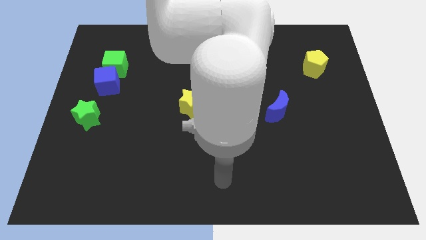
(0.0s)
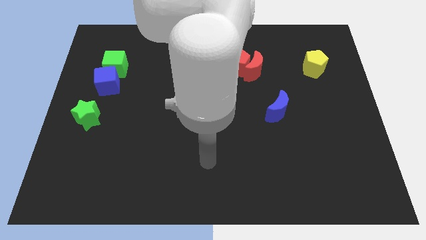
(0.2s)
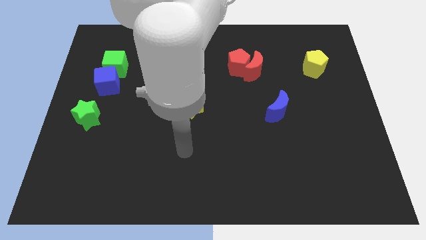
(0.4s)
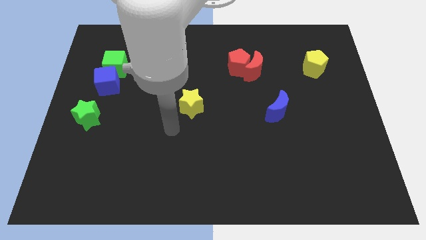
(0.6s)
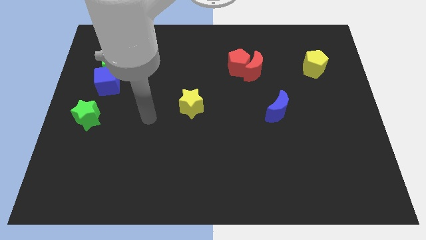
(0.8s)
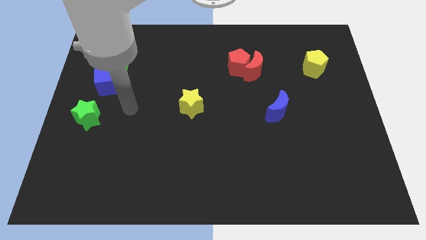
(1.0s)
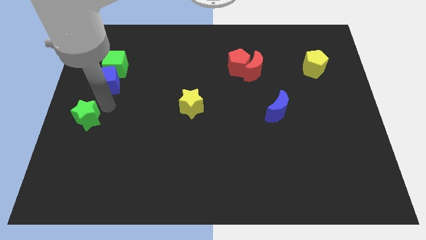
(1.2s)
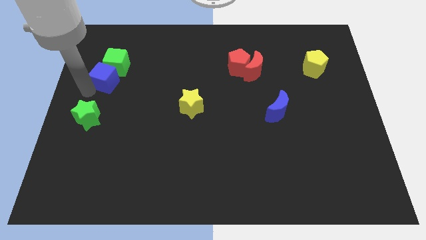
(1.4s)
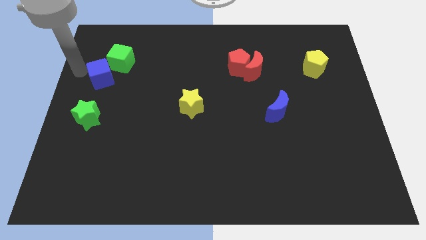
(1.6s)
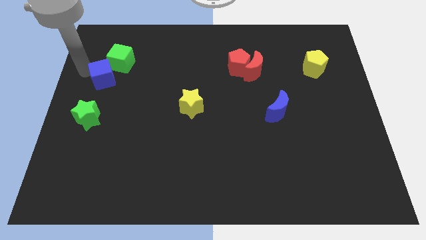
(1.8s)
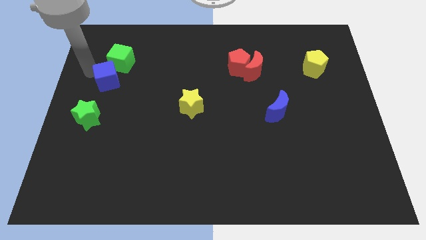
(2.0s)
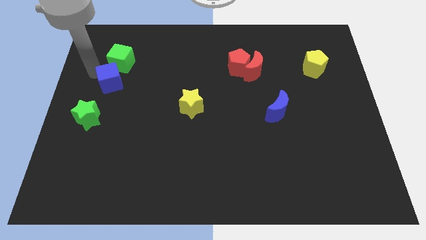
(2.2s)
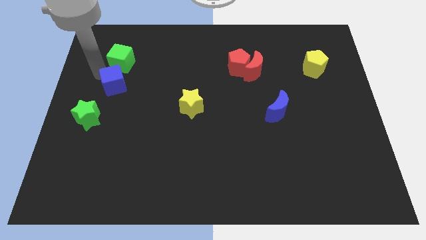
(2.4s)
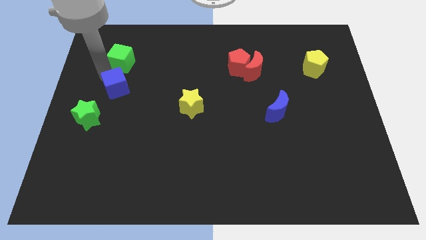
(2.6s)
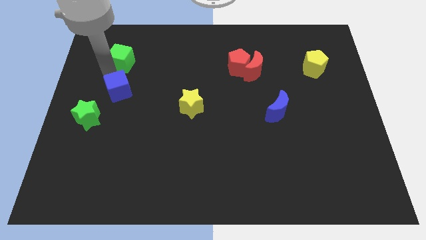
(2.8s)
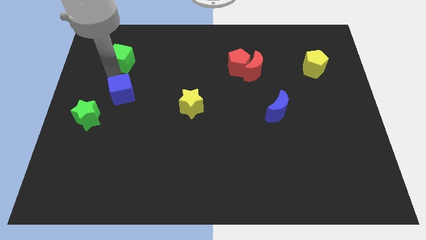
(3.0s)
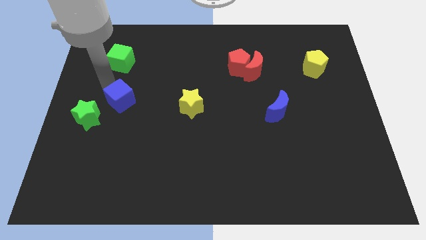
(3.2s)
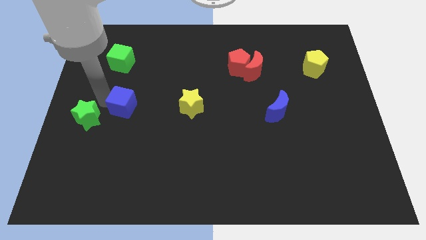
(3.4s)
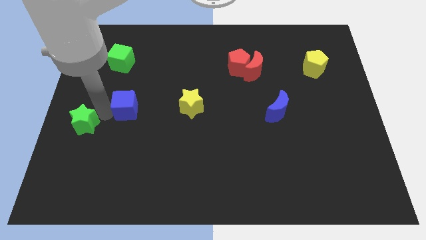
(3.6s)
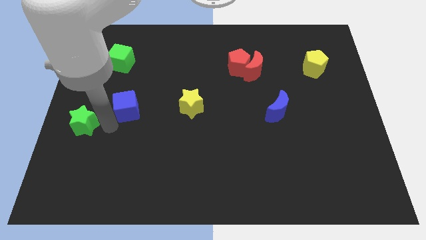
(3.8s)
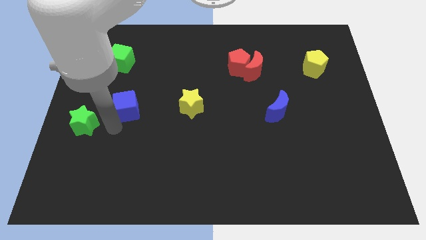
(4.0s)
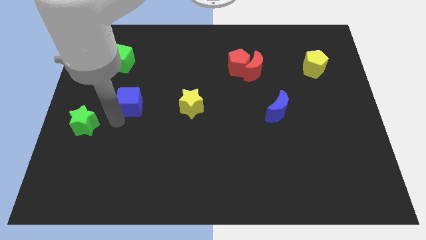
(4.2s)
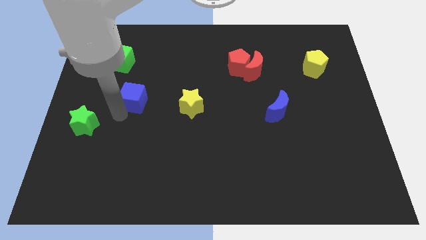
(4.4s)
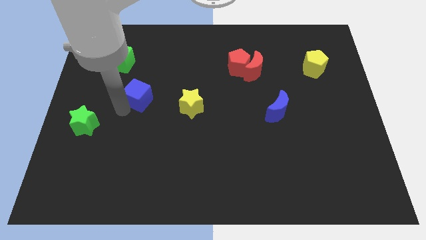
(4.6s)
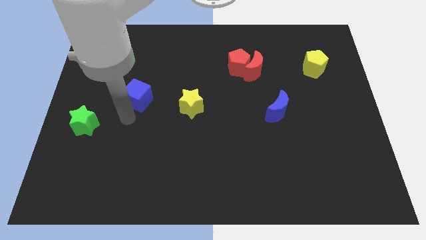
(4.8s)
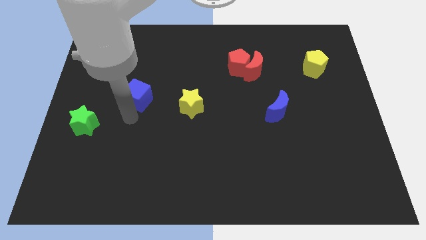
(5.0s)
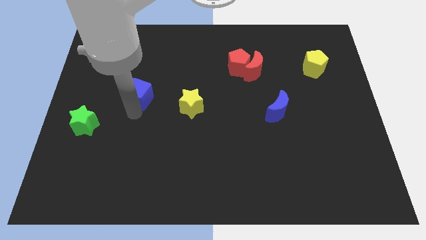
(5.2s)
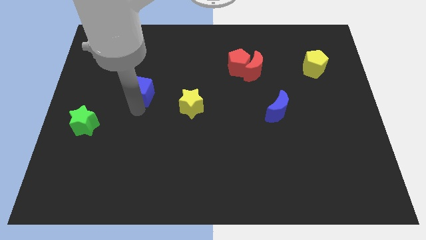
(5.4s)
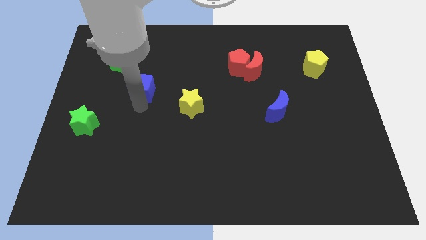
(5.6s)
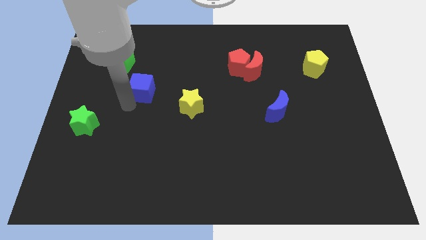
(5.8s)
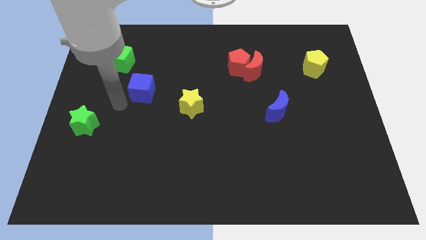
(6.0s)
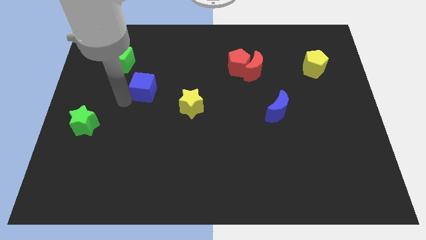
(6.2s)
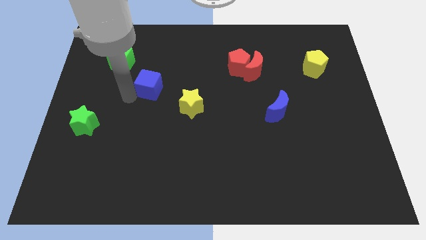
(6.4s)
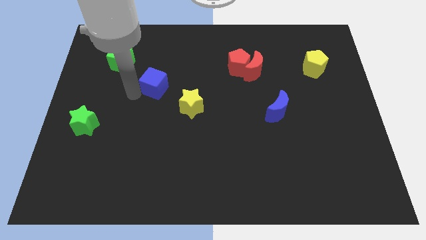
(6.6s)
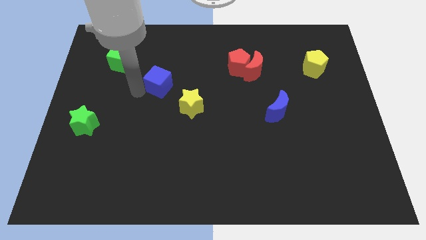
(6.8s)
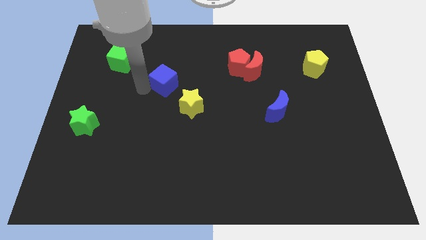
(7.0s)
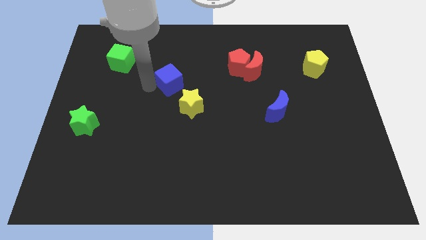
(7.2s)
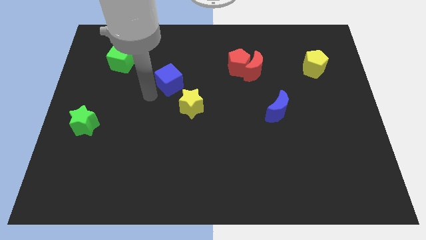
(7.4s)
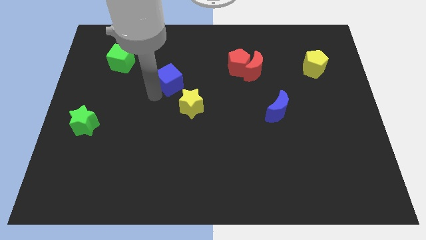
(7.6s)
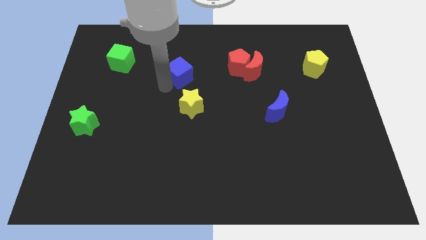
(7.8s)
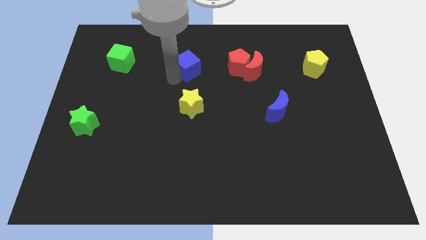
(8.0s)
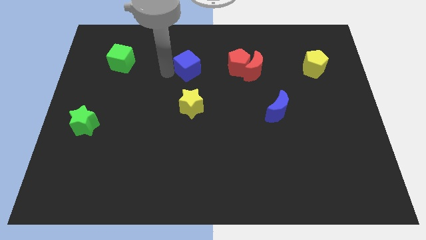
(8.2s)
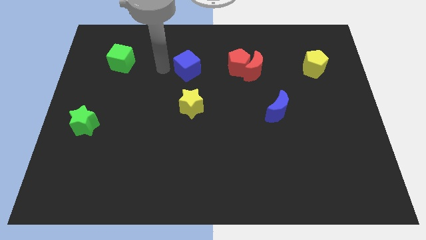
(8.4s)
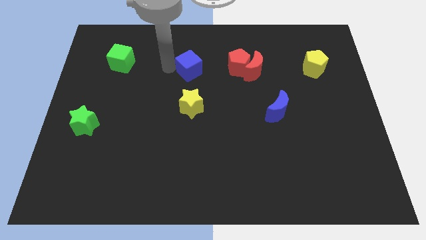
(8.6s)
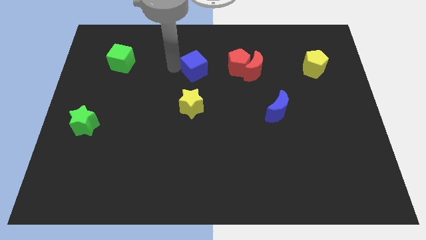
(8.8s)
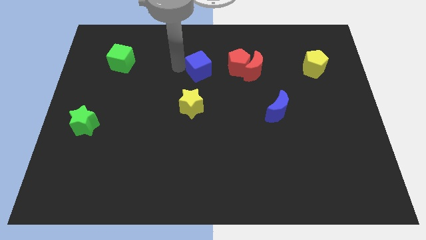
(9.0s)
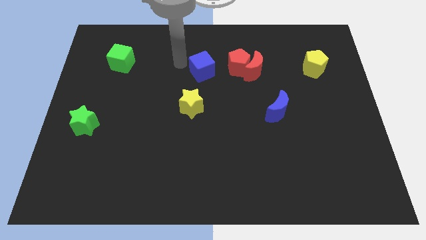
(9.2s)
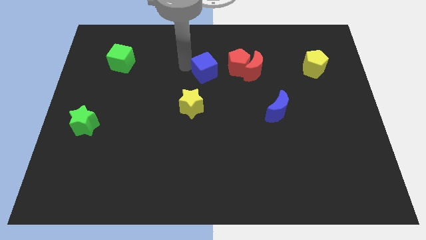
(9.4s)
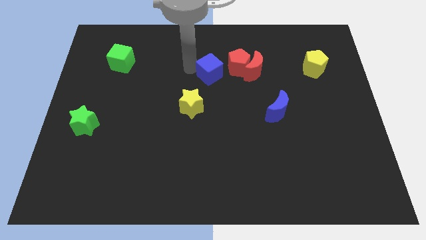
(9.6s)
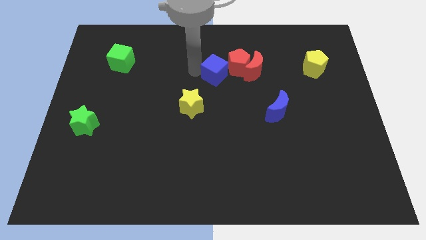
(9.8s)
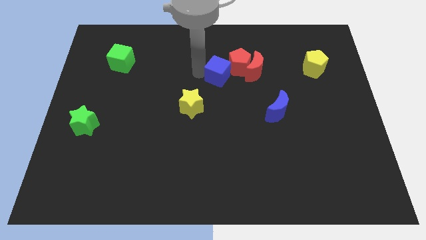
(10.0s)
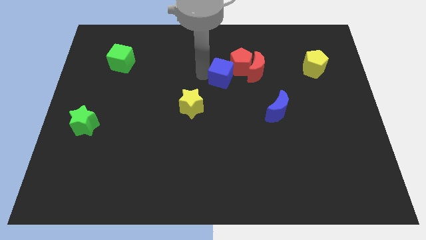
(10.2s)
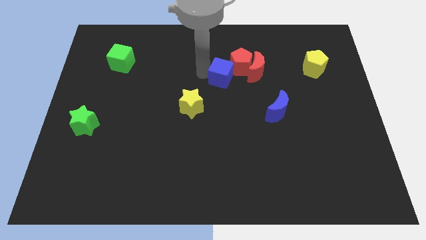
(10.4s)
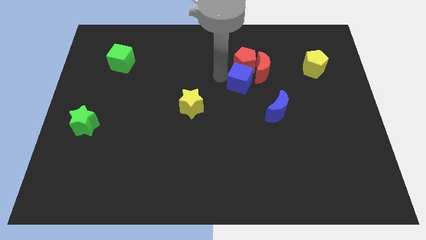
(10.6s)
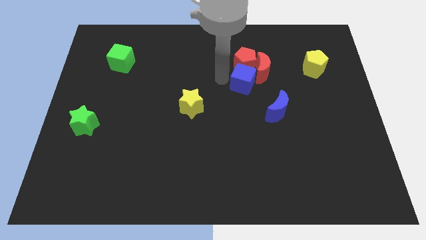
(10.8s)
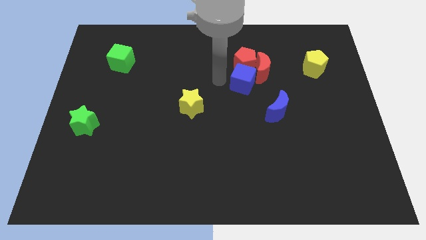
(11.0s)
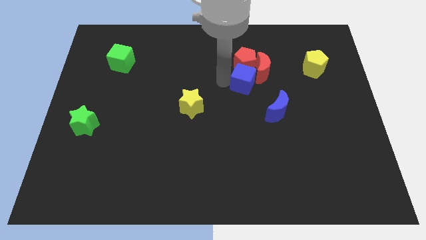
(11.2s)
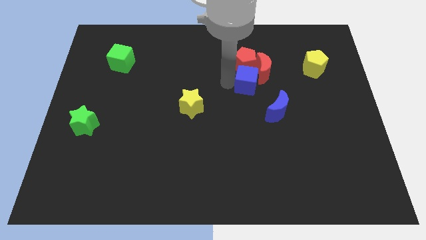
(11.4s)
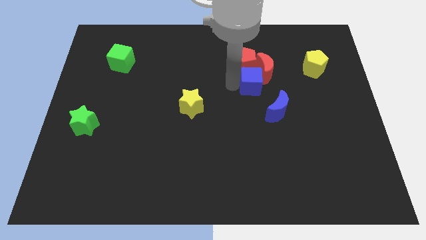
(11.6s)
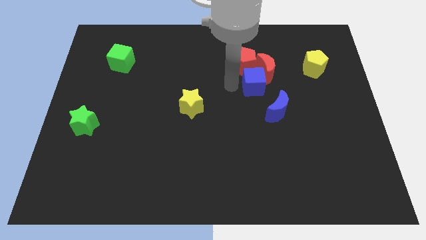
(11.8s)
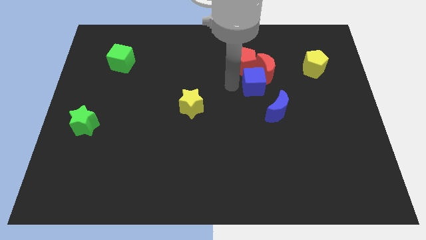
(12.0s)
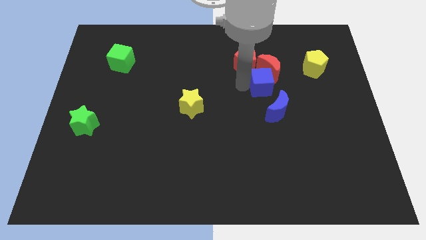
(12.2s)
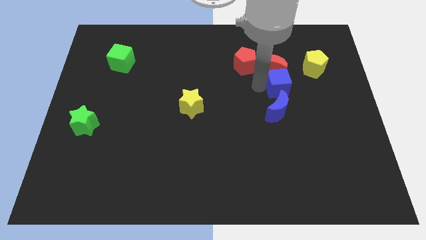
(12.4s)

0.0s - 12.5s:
move the blue cube to the bottom left side of the yellow pentagon

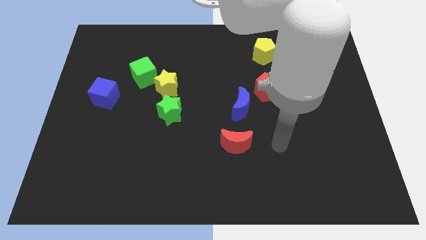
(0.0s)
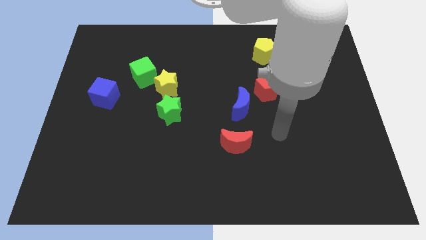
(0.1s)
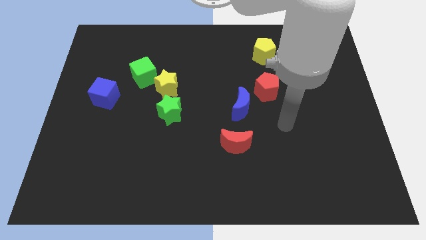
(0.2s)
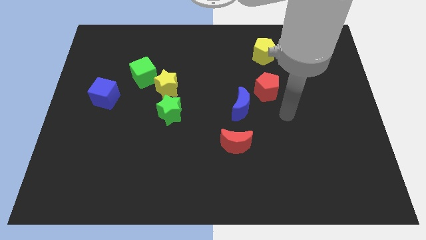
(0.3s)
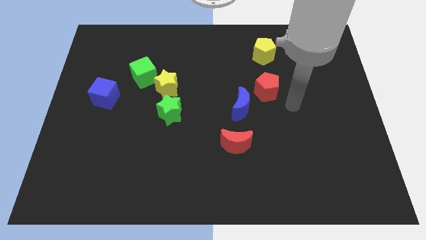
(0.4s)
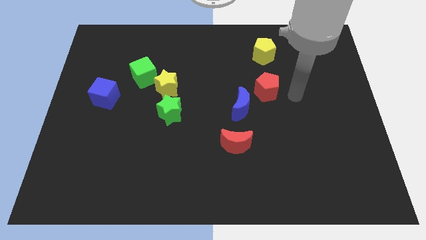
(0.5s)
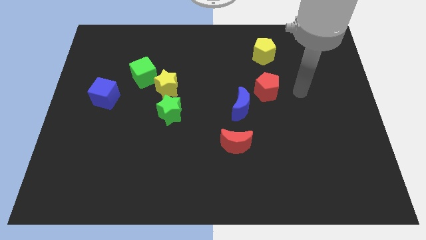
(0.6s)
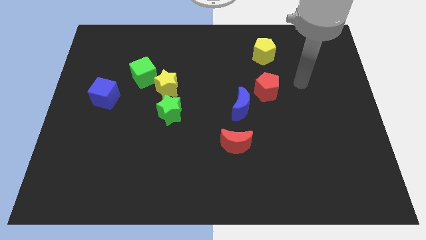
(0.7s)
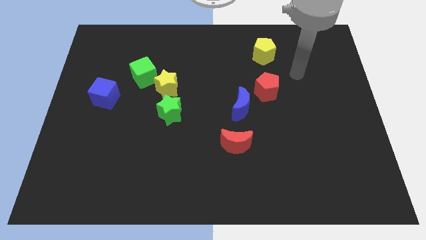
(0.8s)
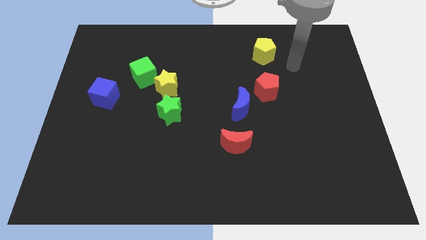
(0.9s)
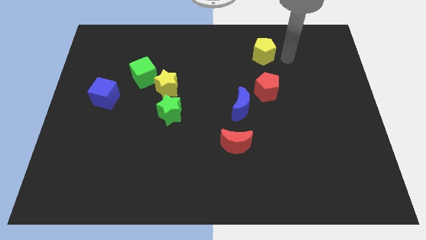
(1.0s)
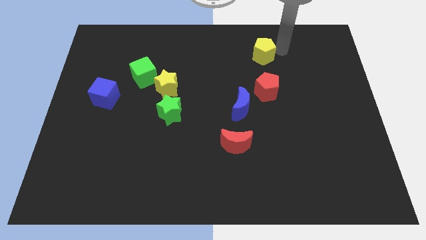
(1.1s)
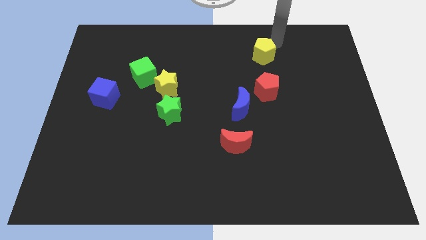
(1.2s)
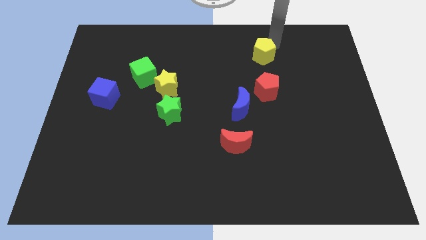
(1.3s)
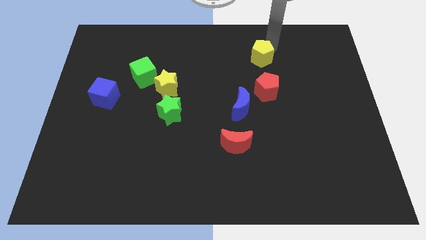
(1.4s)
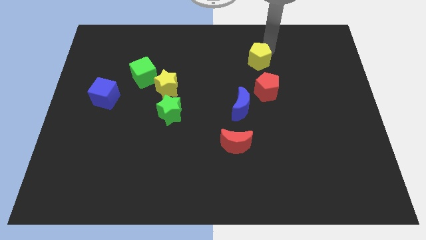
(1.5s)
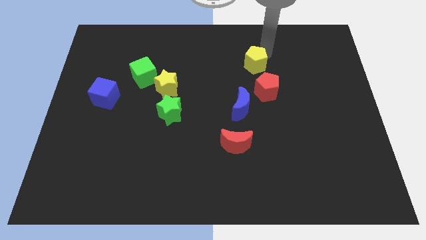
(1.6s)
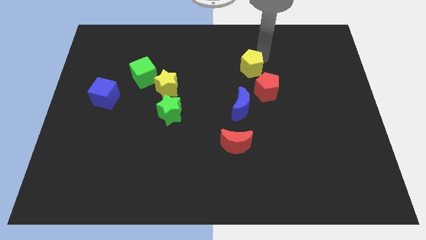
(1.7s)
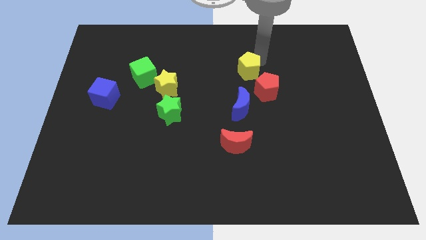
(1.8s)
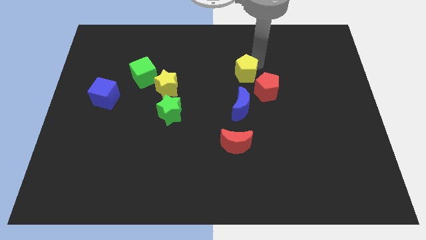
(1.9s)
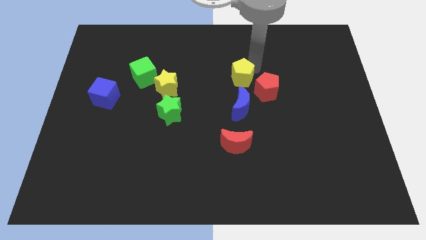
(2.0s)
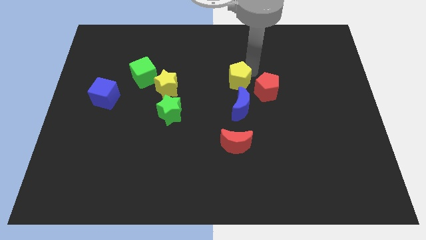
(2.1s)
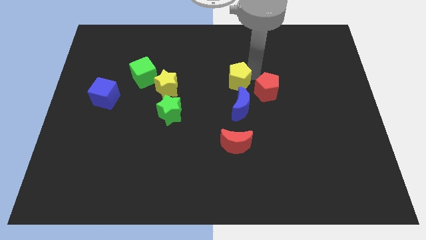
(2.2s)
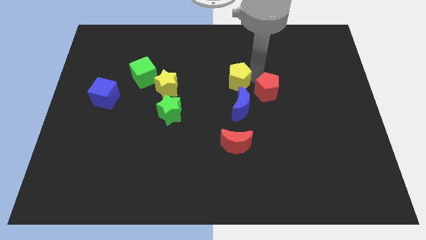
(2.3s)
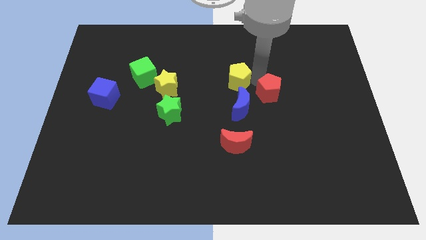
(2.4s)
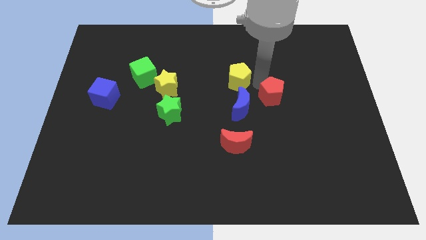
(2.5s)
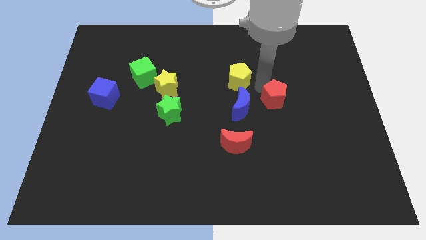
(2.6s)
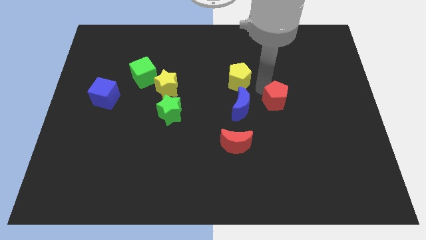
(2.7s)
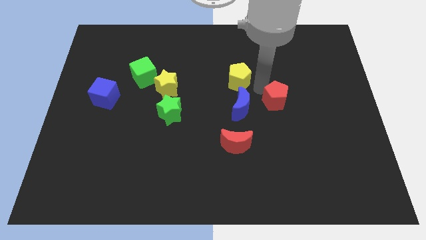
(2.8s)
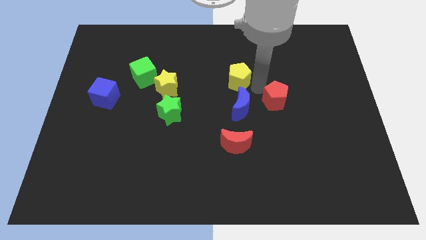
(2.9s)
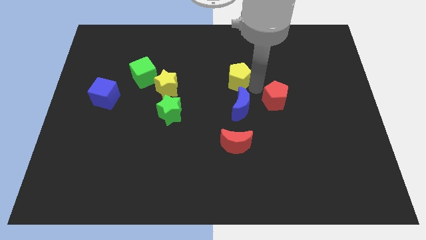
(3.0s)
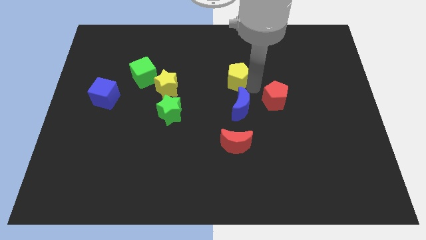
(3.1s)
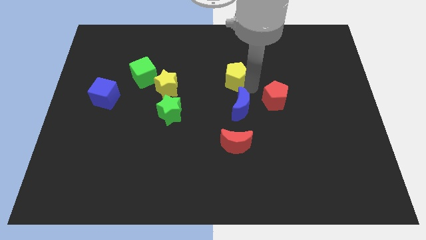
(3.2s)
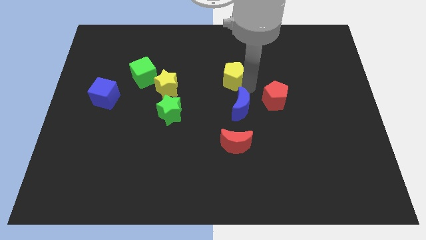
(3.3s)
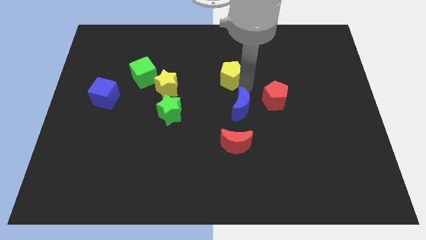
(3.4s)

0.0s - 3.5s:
move the yellow pentagon to the right of the yellow star
